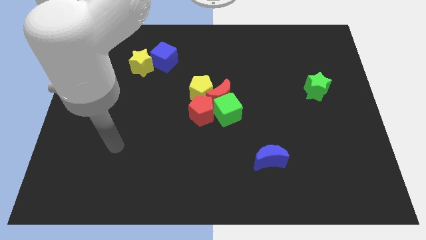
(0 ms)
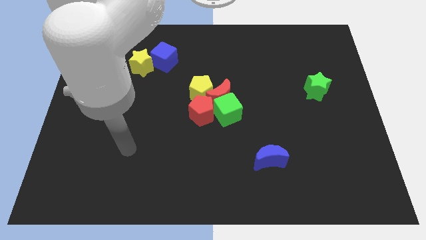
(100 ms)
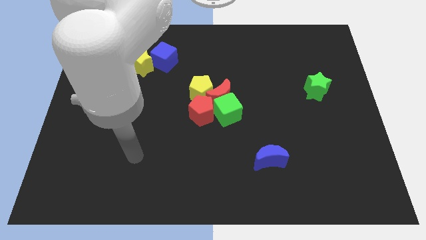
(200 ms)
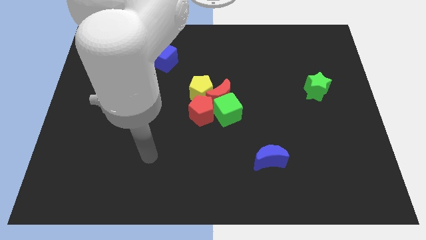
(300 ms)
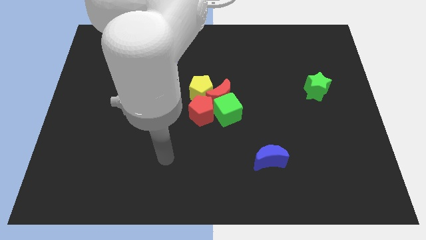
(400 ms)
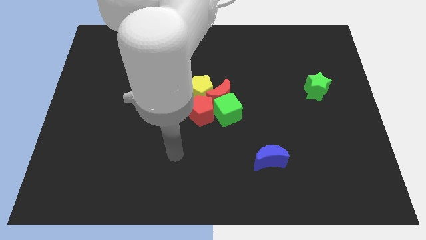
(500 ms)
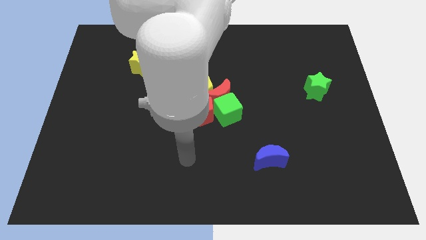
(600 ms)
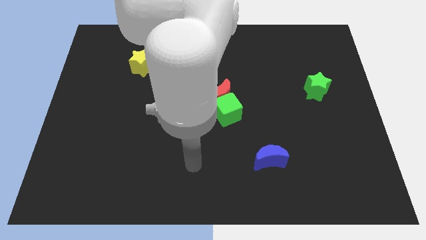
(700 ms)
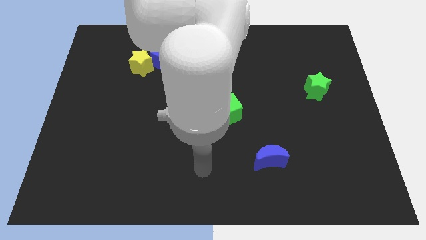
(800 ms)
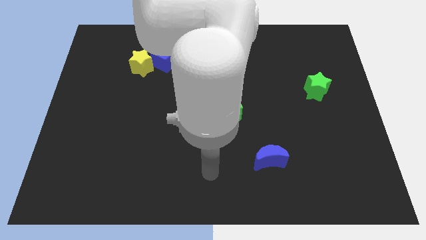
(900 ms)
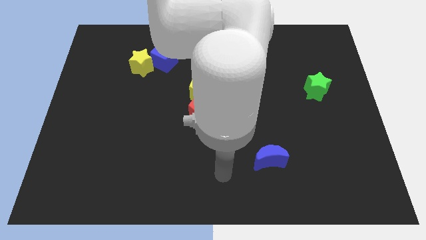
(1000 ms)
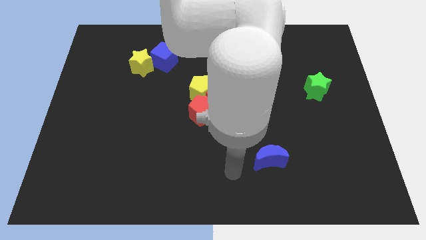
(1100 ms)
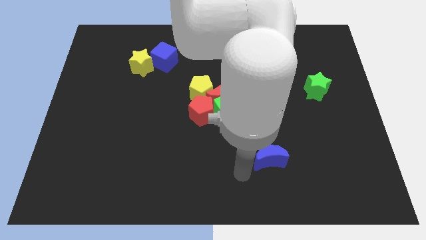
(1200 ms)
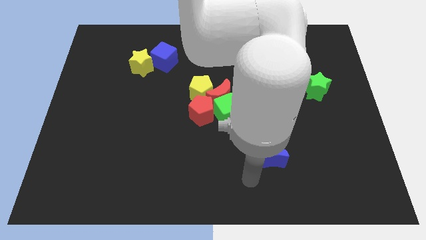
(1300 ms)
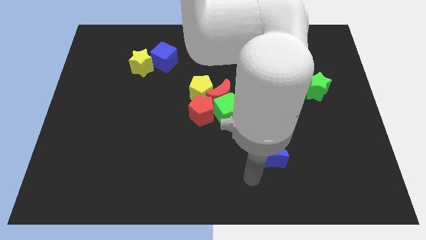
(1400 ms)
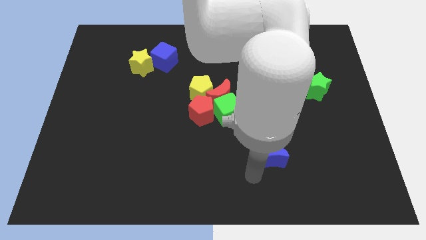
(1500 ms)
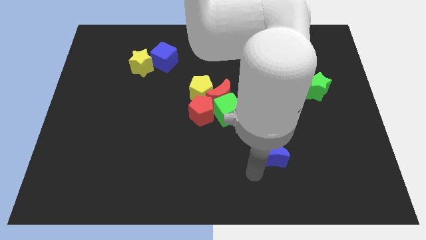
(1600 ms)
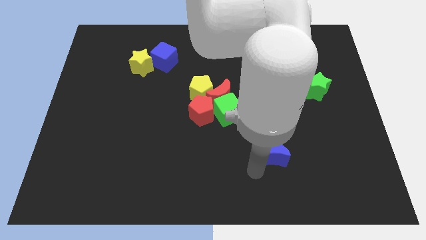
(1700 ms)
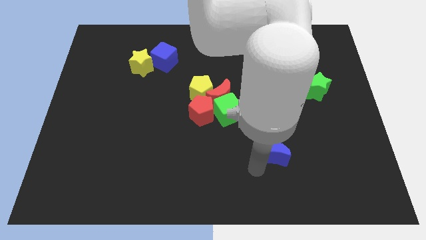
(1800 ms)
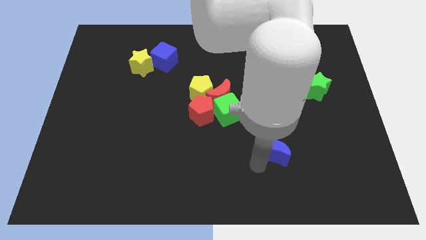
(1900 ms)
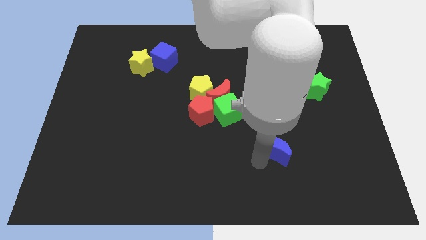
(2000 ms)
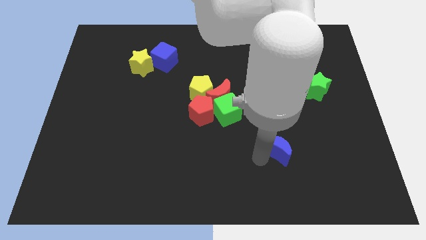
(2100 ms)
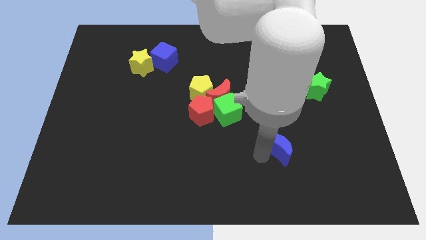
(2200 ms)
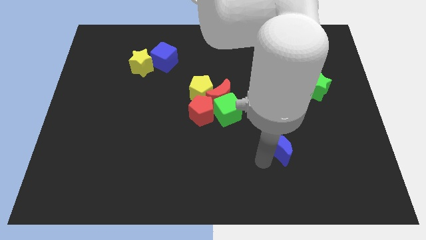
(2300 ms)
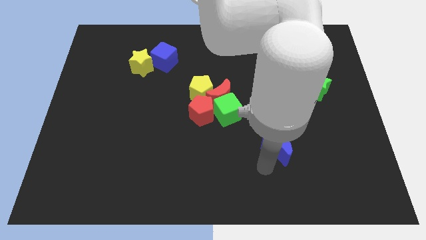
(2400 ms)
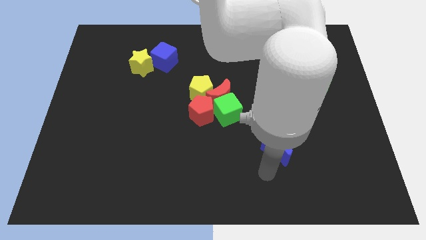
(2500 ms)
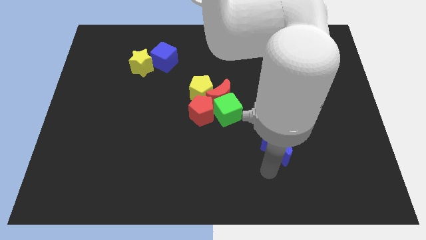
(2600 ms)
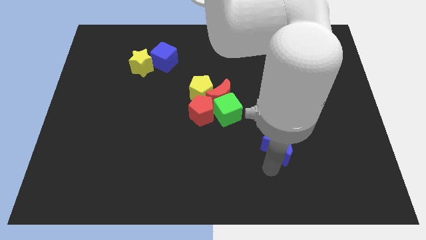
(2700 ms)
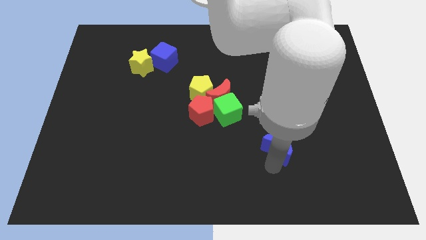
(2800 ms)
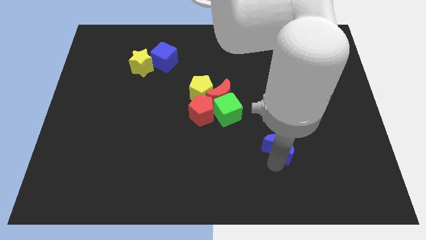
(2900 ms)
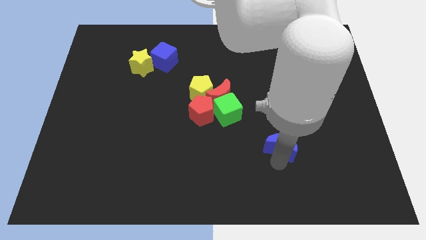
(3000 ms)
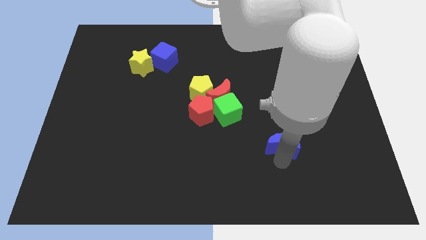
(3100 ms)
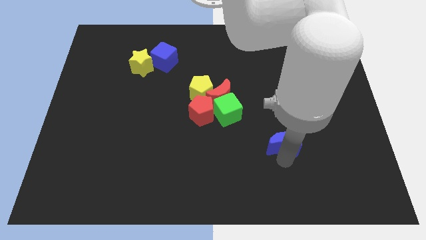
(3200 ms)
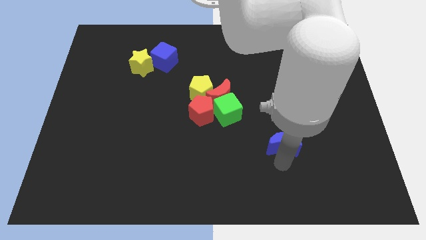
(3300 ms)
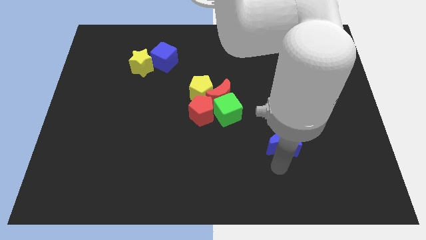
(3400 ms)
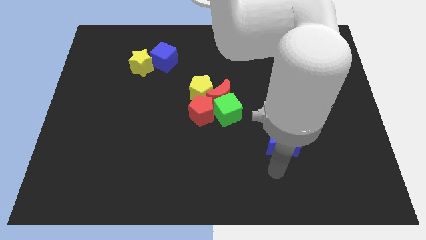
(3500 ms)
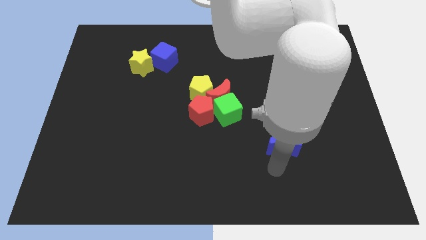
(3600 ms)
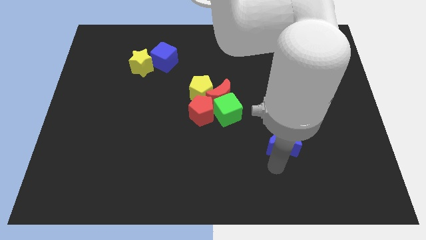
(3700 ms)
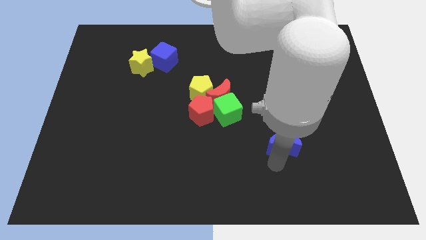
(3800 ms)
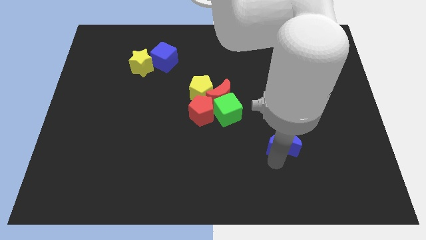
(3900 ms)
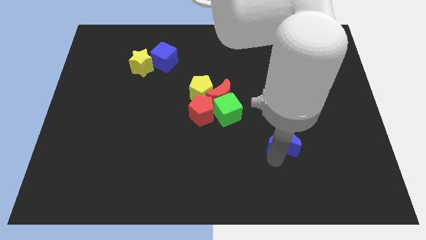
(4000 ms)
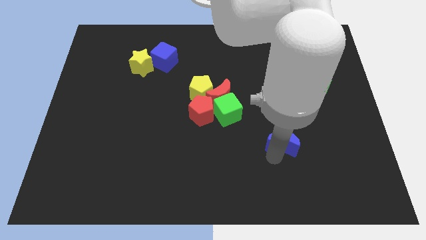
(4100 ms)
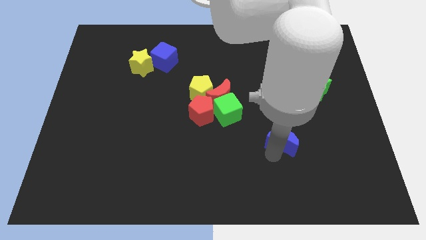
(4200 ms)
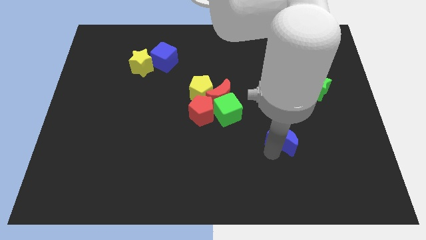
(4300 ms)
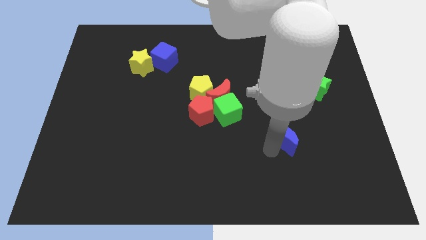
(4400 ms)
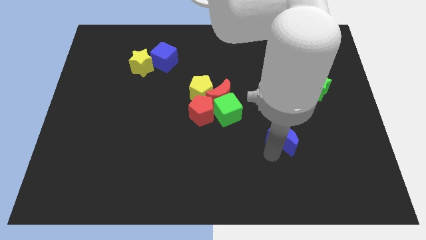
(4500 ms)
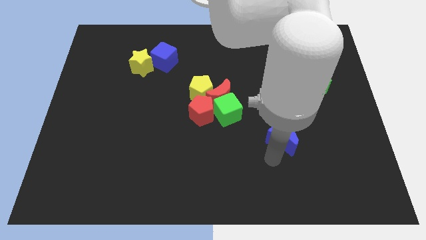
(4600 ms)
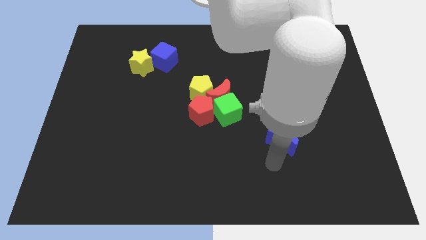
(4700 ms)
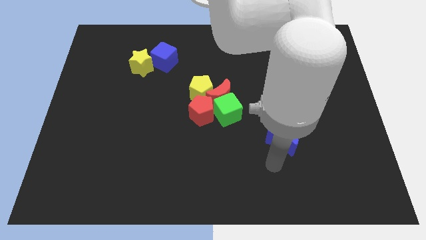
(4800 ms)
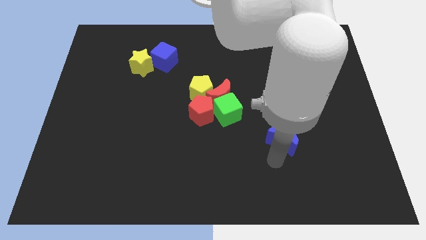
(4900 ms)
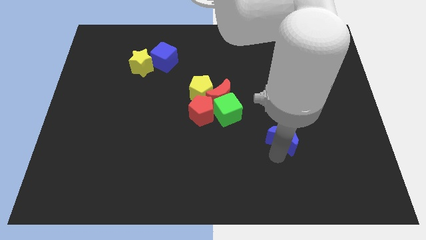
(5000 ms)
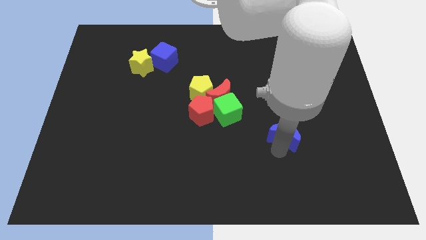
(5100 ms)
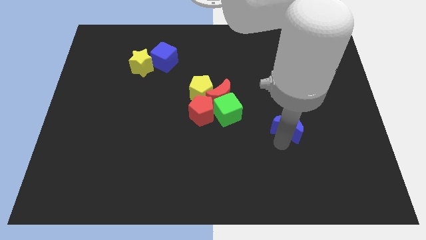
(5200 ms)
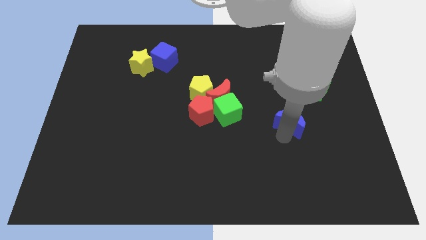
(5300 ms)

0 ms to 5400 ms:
slide the blue moon to the bottom left of the green star

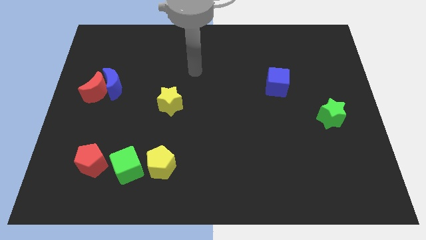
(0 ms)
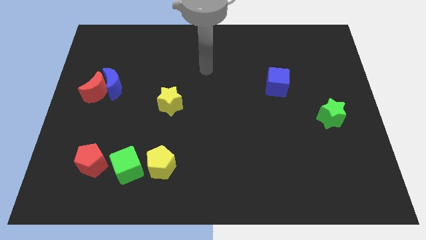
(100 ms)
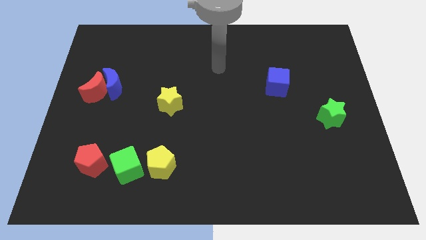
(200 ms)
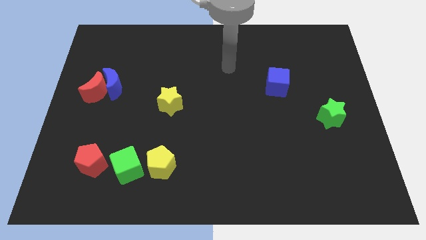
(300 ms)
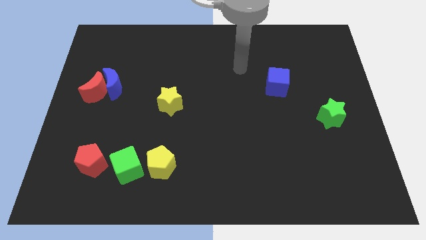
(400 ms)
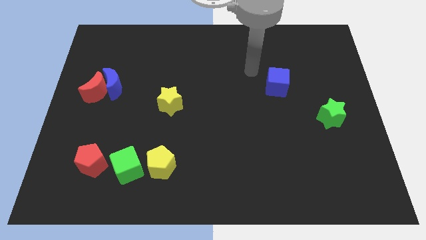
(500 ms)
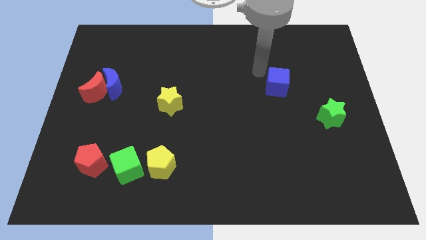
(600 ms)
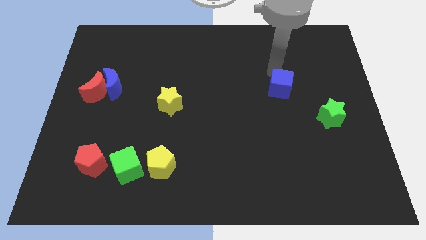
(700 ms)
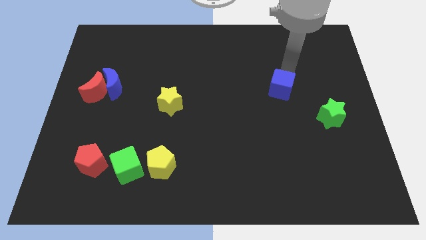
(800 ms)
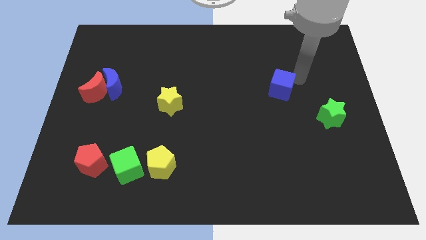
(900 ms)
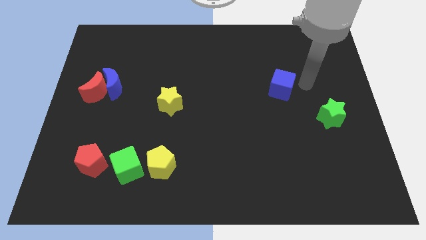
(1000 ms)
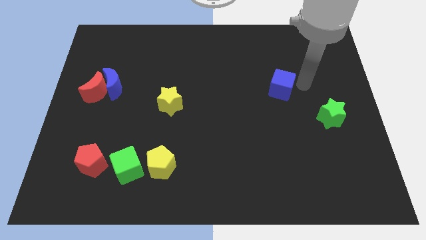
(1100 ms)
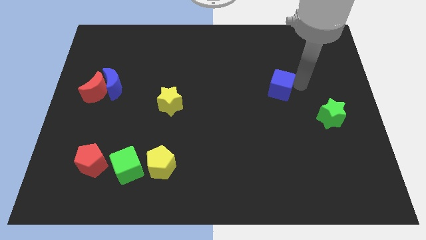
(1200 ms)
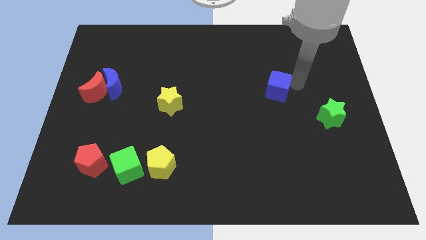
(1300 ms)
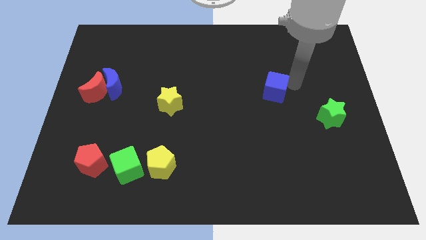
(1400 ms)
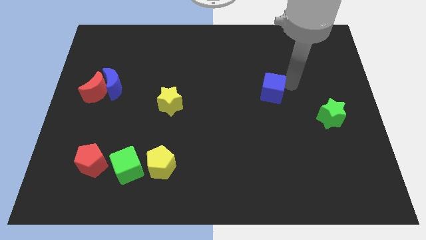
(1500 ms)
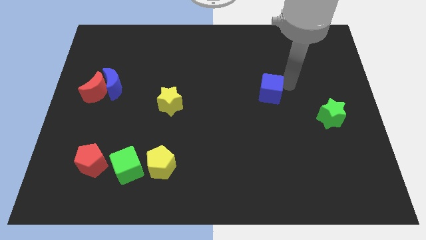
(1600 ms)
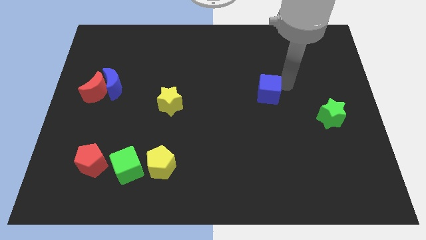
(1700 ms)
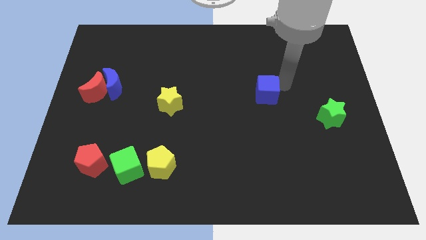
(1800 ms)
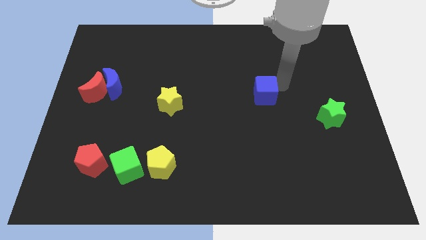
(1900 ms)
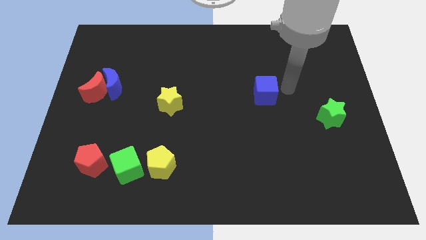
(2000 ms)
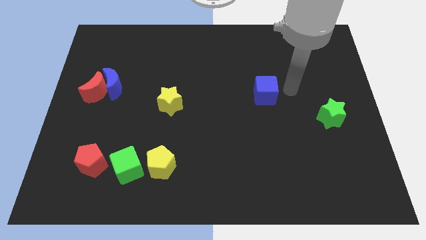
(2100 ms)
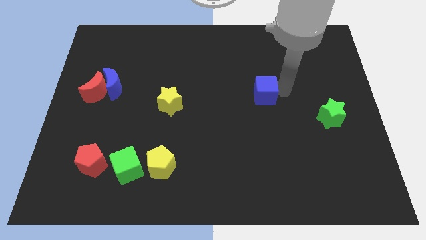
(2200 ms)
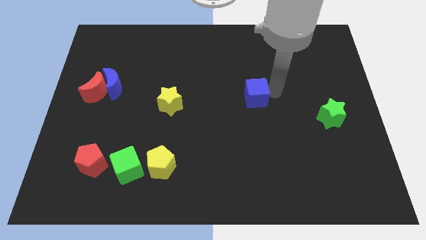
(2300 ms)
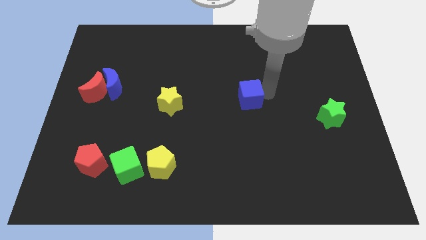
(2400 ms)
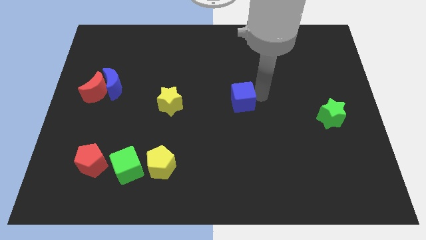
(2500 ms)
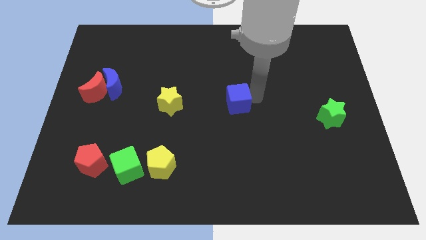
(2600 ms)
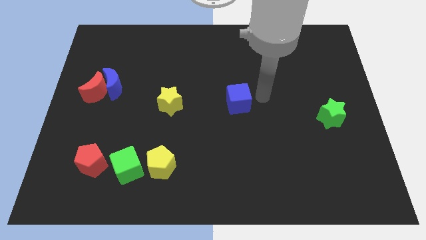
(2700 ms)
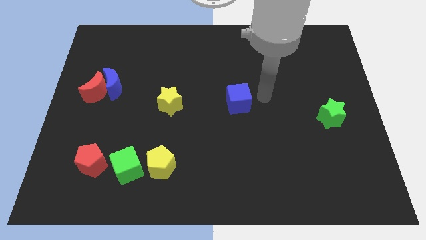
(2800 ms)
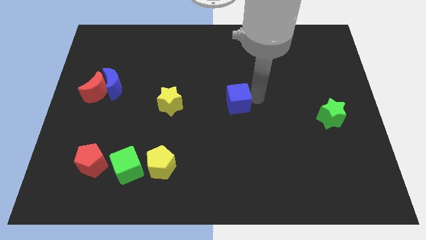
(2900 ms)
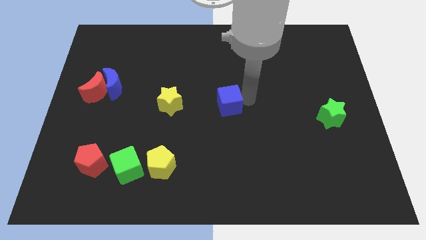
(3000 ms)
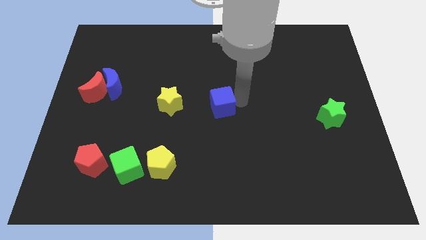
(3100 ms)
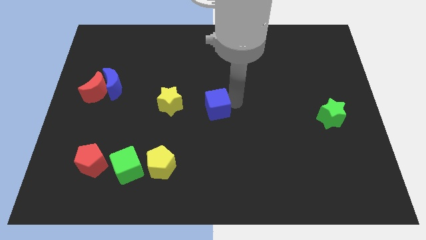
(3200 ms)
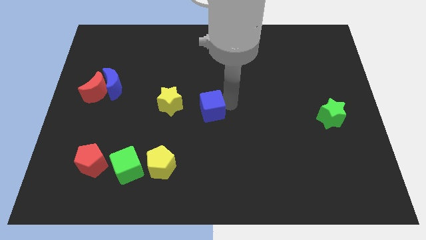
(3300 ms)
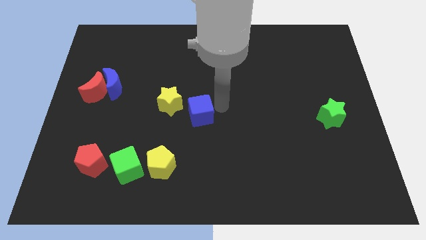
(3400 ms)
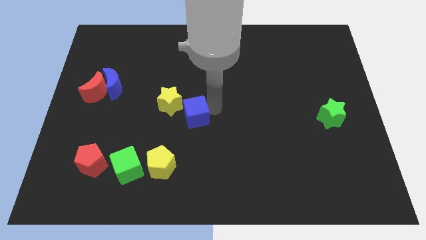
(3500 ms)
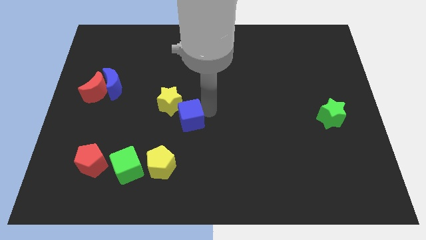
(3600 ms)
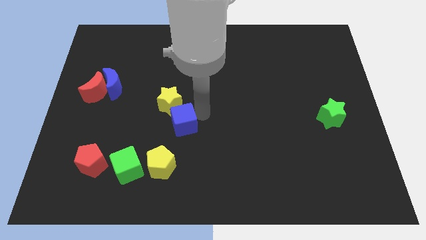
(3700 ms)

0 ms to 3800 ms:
put the blue cube above the yellow pentagon
